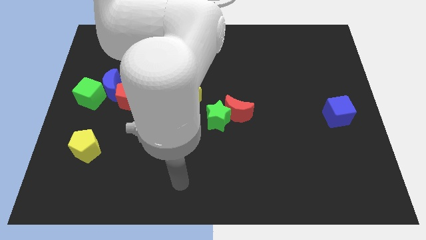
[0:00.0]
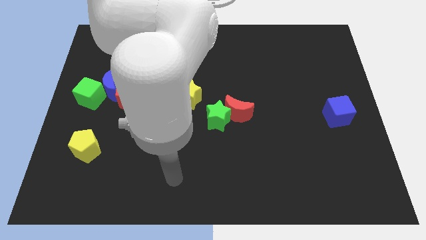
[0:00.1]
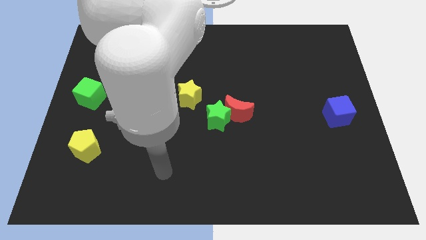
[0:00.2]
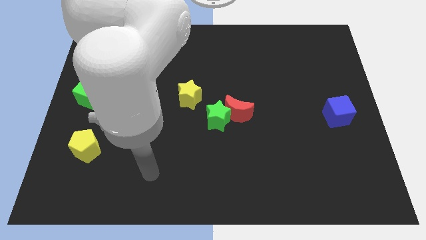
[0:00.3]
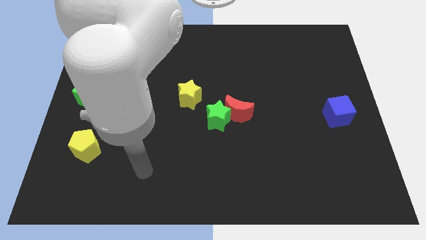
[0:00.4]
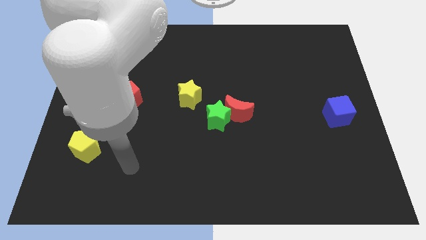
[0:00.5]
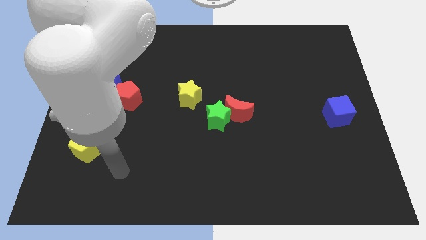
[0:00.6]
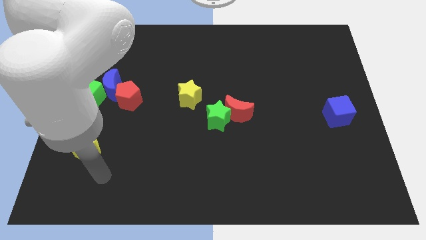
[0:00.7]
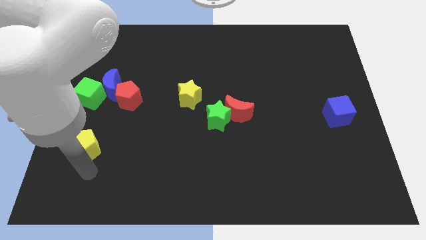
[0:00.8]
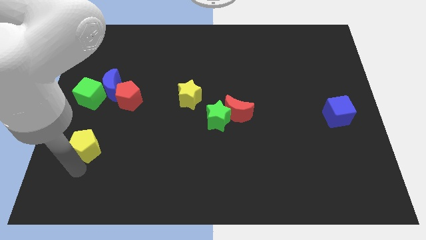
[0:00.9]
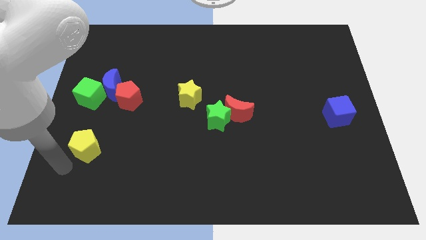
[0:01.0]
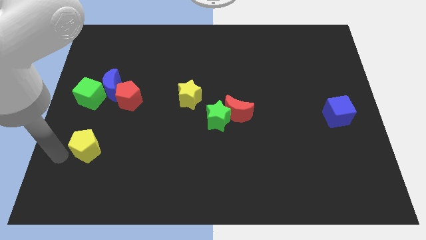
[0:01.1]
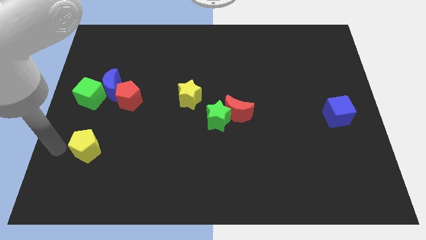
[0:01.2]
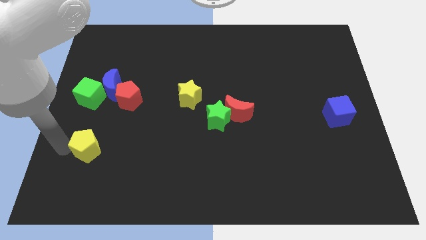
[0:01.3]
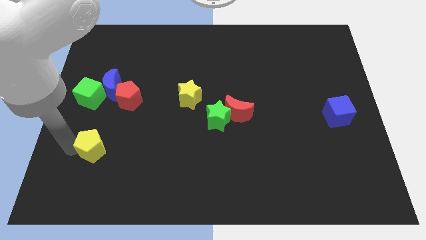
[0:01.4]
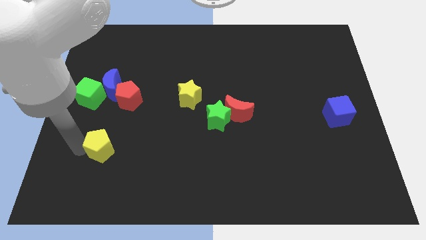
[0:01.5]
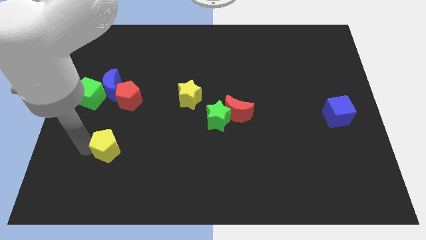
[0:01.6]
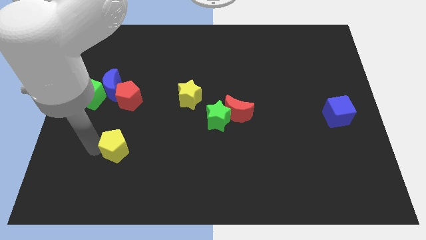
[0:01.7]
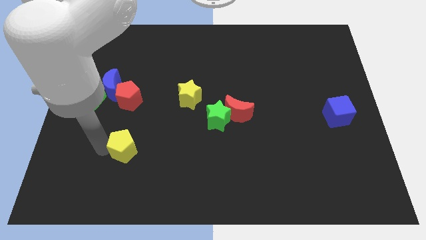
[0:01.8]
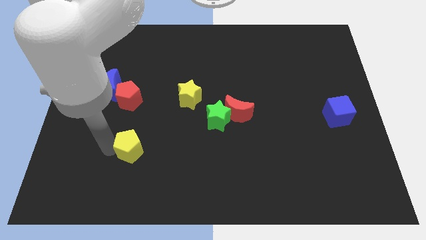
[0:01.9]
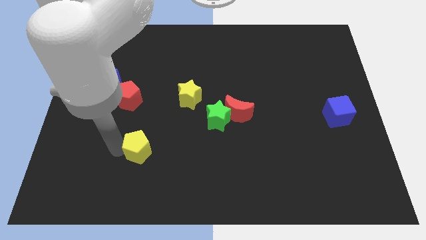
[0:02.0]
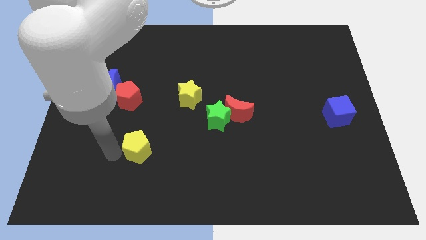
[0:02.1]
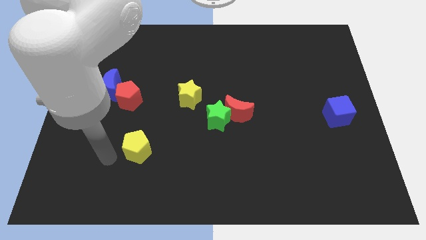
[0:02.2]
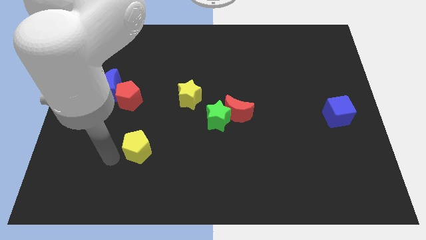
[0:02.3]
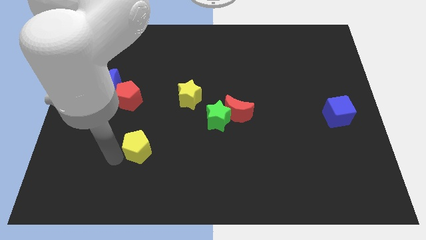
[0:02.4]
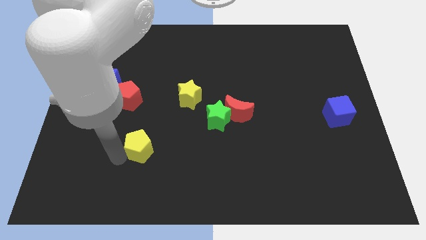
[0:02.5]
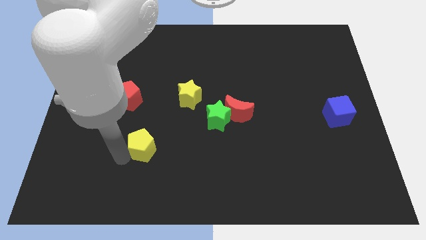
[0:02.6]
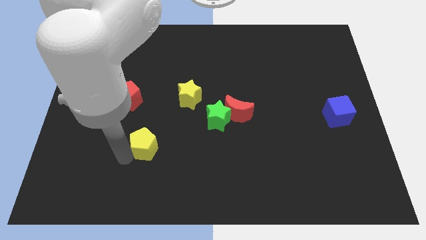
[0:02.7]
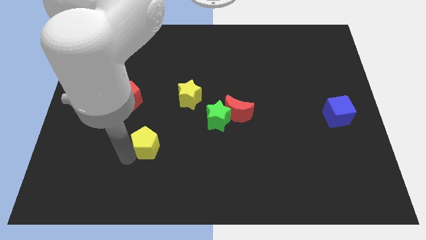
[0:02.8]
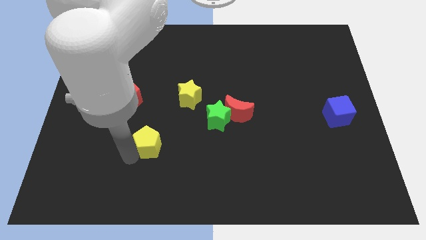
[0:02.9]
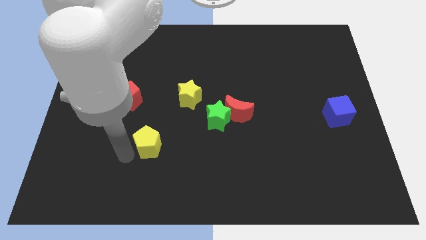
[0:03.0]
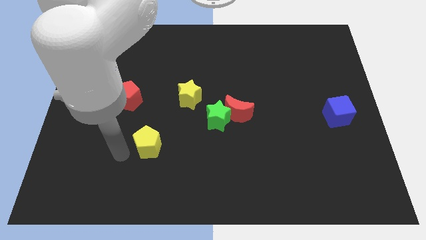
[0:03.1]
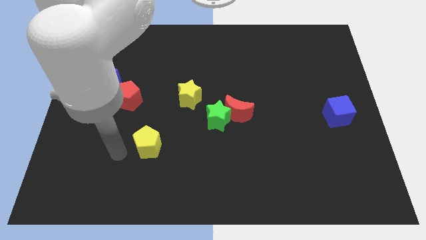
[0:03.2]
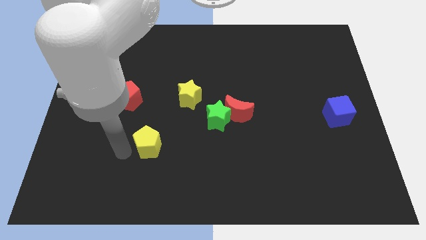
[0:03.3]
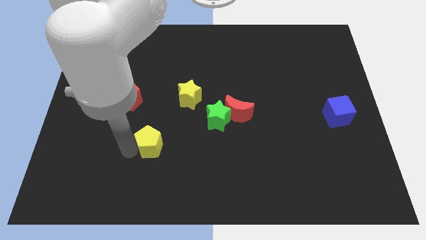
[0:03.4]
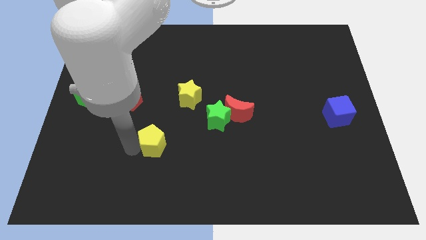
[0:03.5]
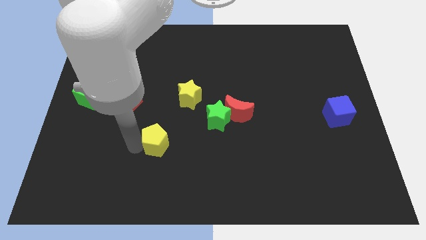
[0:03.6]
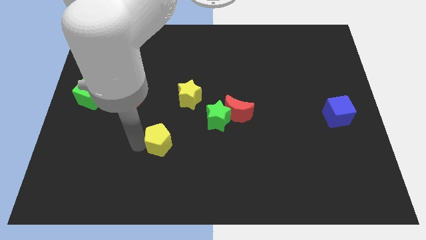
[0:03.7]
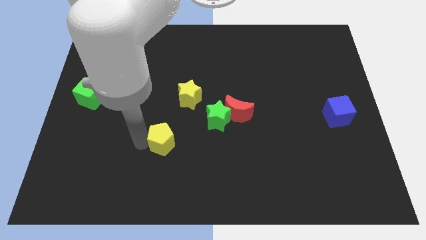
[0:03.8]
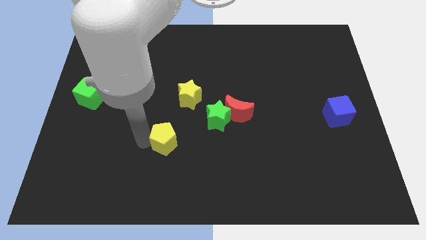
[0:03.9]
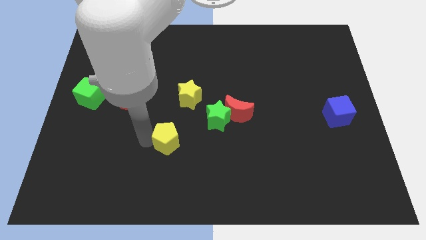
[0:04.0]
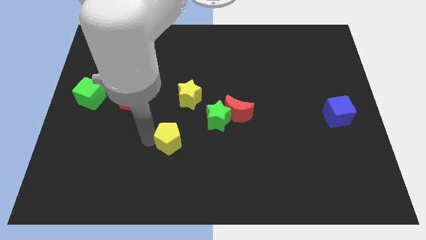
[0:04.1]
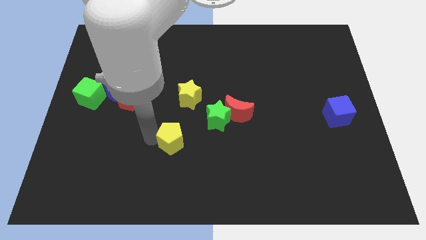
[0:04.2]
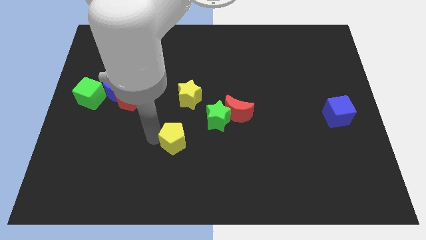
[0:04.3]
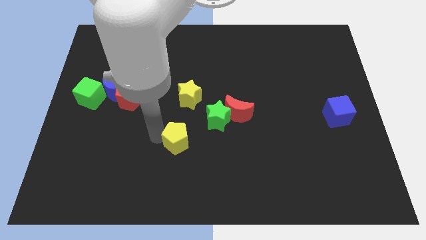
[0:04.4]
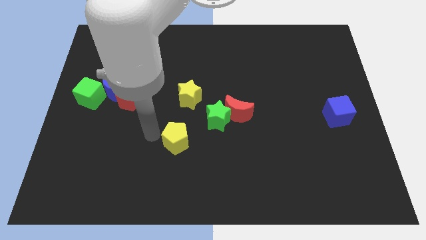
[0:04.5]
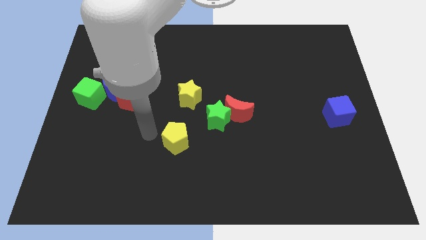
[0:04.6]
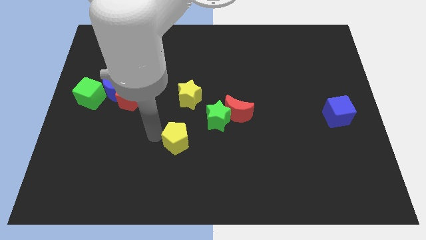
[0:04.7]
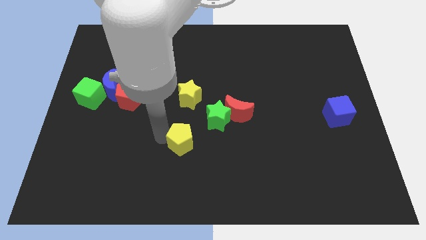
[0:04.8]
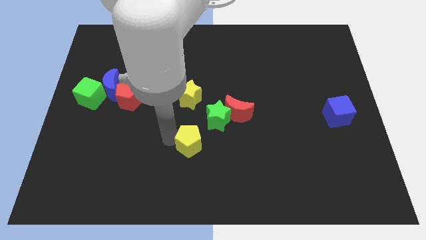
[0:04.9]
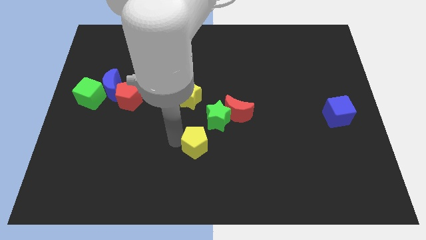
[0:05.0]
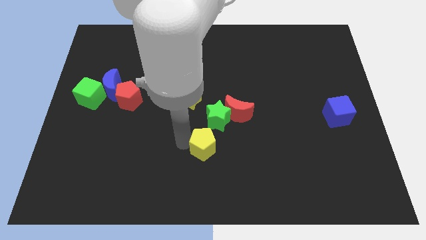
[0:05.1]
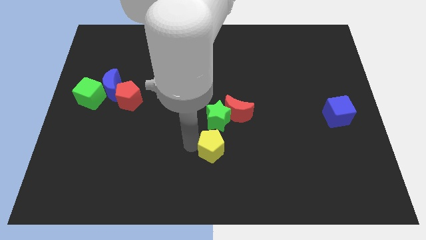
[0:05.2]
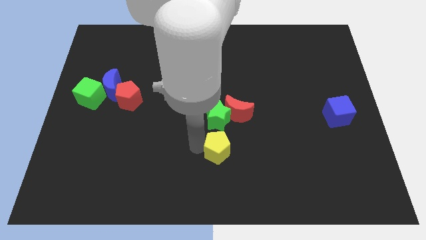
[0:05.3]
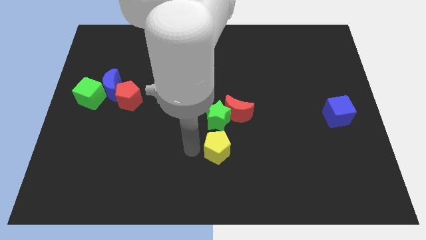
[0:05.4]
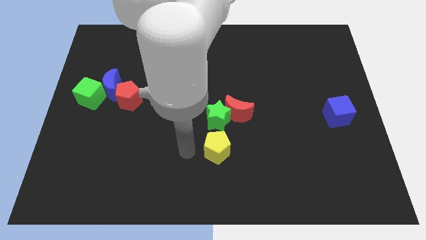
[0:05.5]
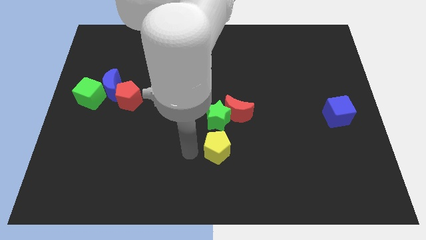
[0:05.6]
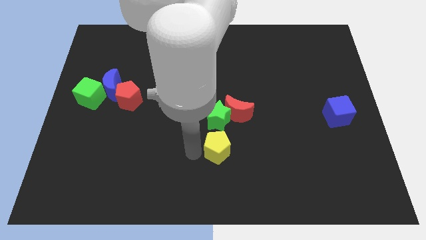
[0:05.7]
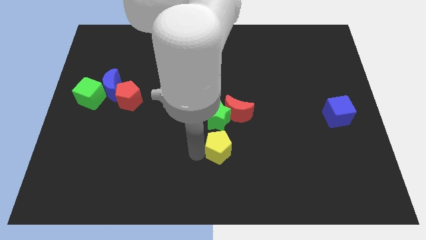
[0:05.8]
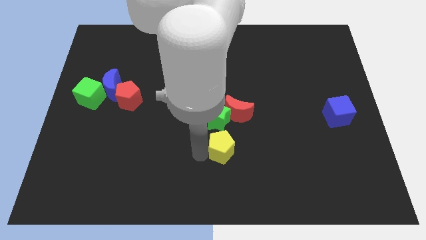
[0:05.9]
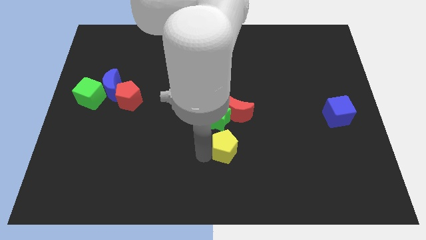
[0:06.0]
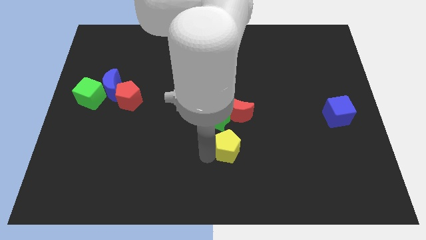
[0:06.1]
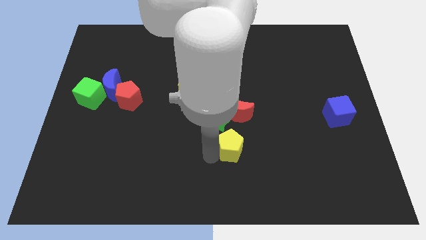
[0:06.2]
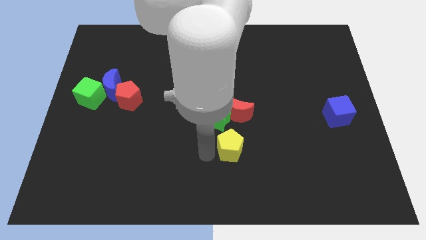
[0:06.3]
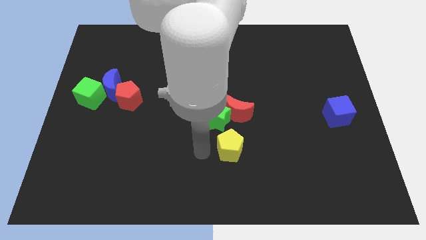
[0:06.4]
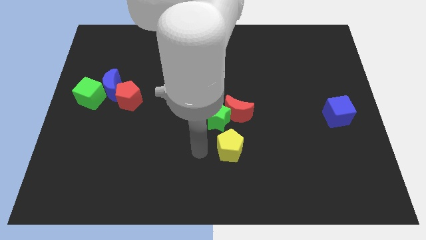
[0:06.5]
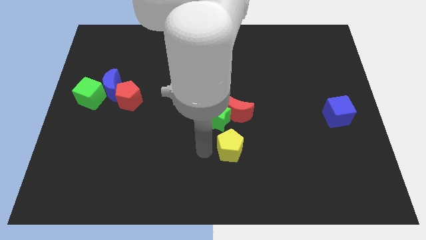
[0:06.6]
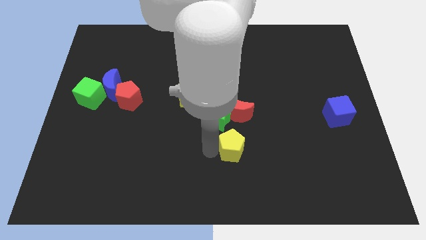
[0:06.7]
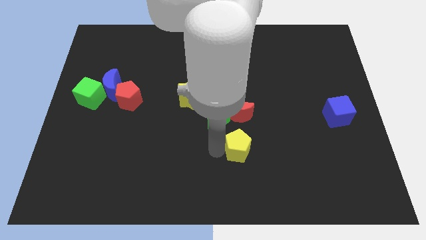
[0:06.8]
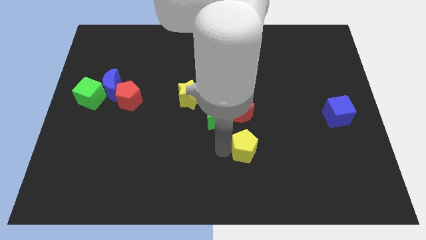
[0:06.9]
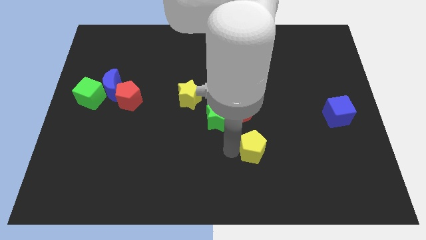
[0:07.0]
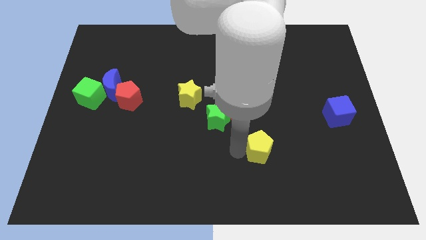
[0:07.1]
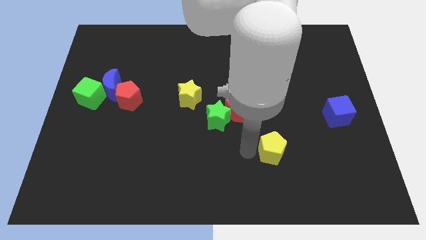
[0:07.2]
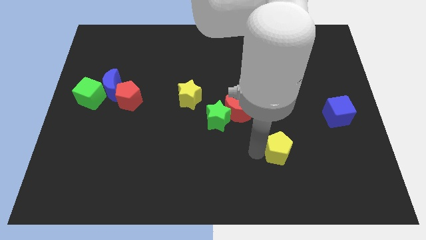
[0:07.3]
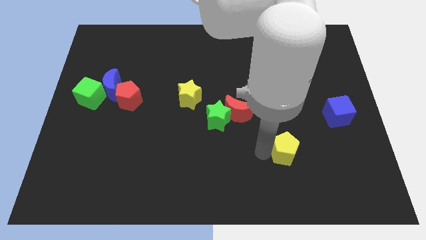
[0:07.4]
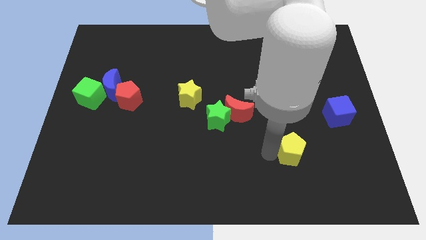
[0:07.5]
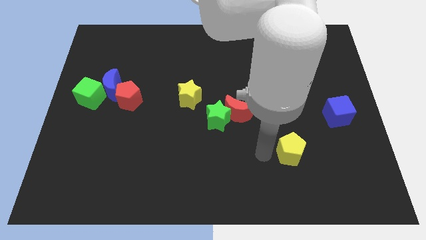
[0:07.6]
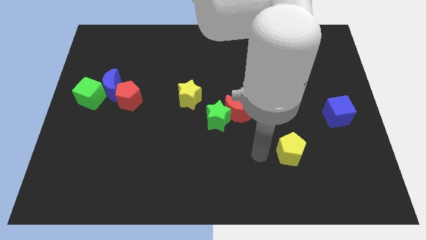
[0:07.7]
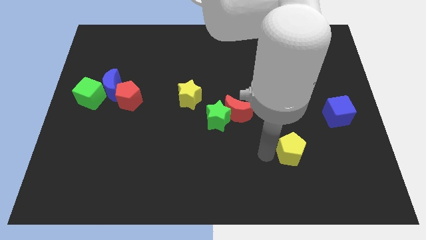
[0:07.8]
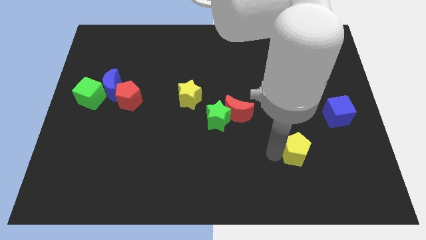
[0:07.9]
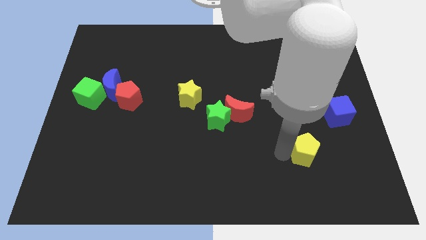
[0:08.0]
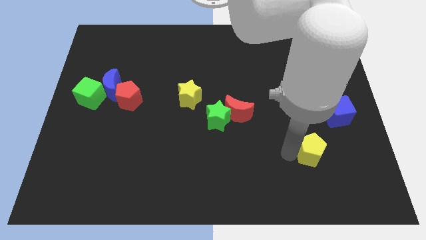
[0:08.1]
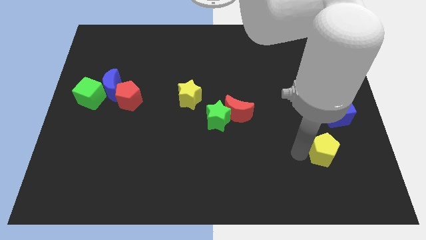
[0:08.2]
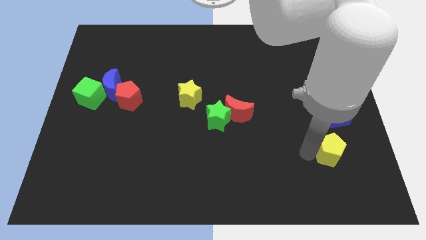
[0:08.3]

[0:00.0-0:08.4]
push the yellow pentagon to the bottom side of the blue cube
